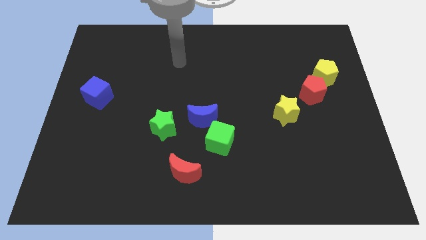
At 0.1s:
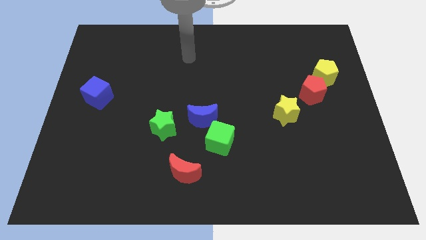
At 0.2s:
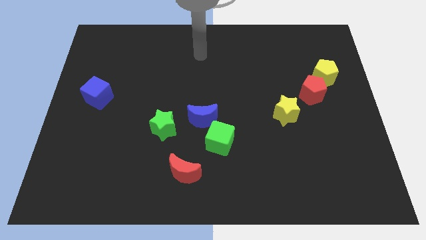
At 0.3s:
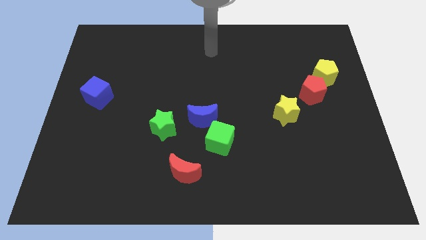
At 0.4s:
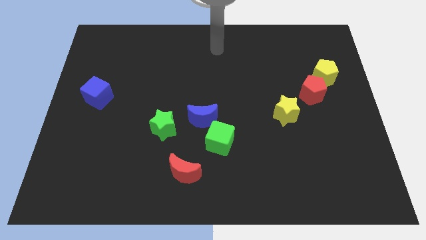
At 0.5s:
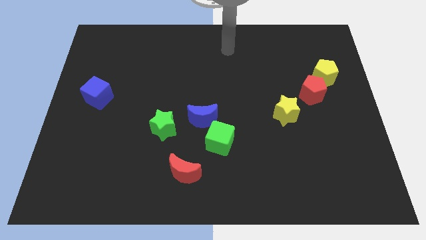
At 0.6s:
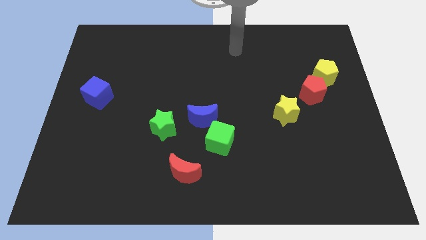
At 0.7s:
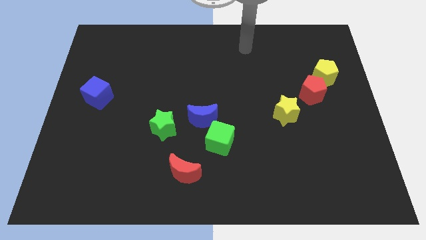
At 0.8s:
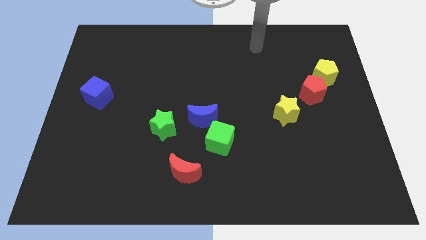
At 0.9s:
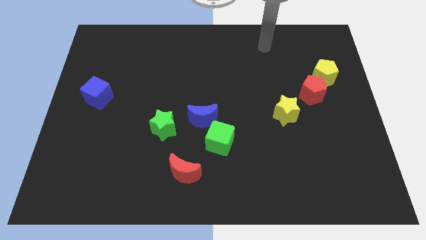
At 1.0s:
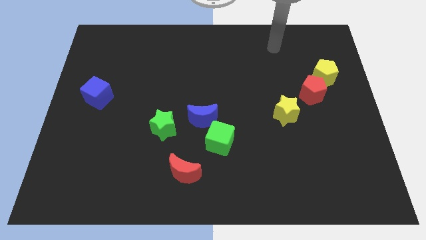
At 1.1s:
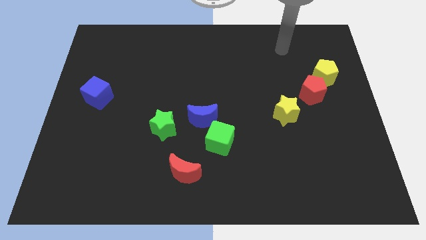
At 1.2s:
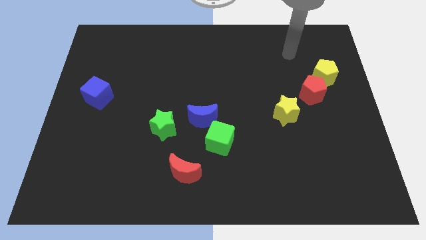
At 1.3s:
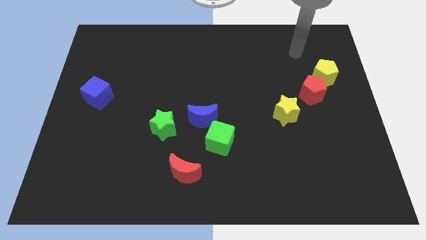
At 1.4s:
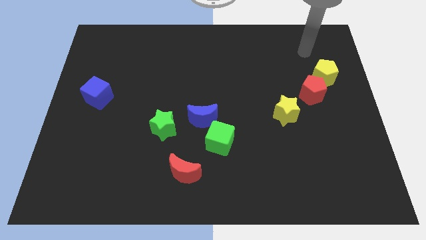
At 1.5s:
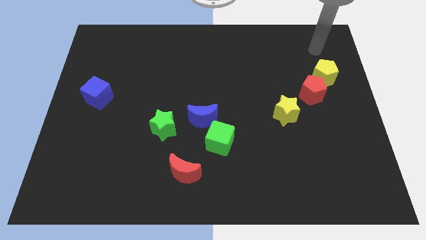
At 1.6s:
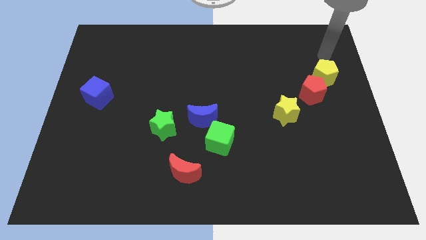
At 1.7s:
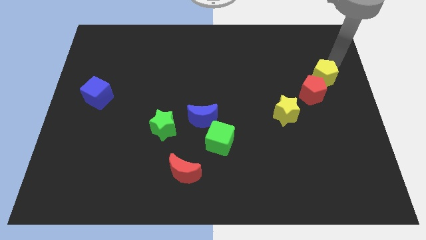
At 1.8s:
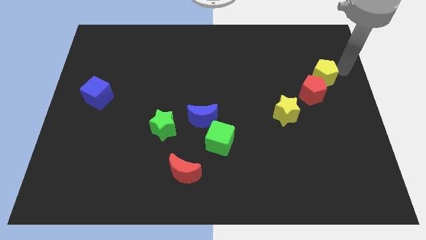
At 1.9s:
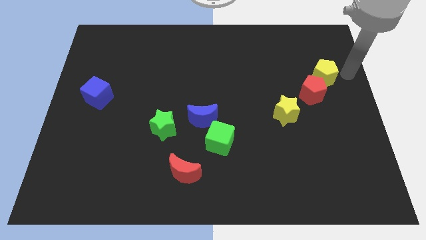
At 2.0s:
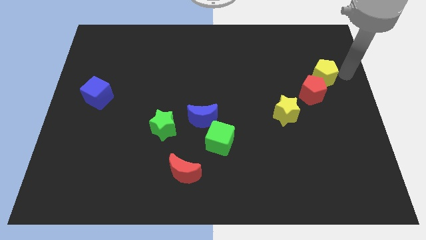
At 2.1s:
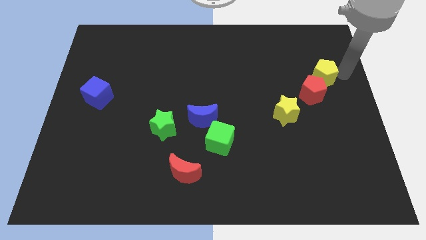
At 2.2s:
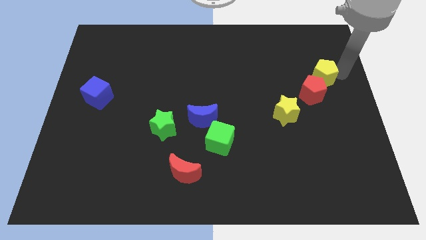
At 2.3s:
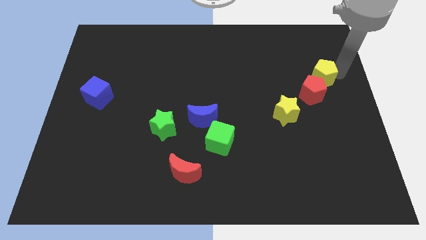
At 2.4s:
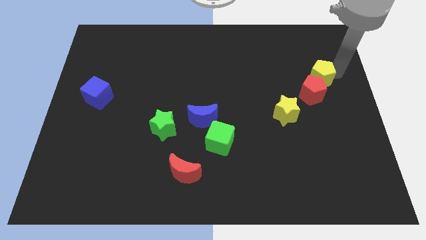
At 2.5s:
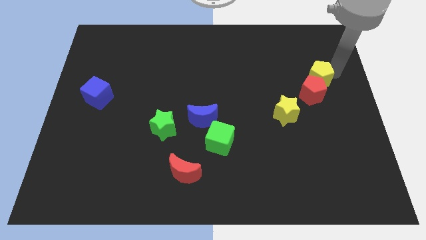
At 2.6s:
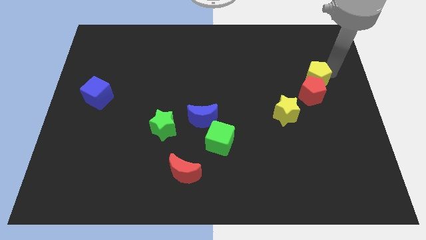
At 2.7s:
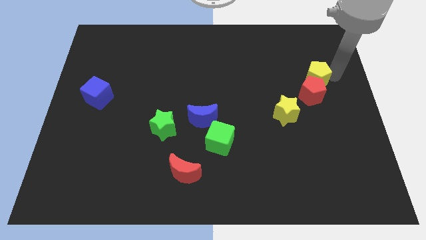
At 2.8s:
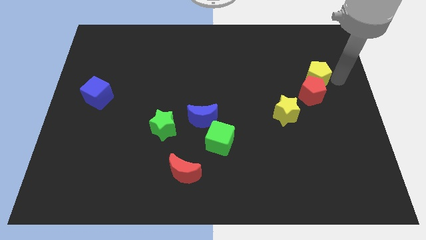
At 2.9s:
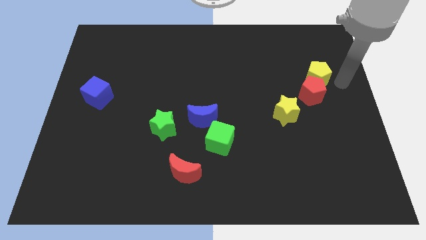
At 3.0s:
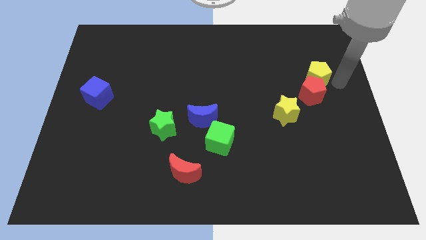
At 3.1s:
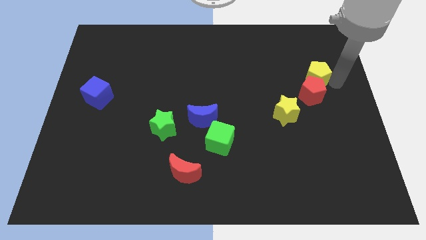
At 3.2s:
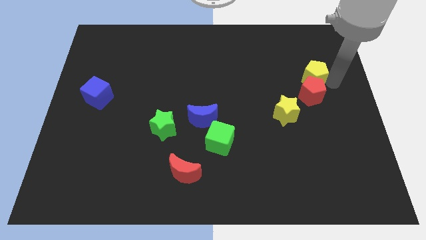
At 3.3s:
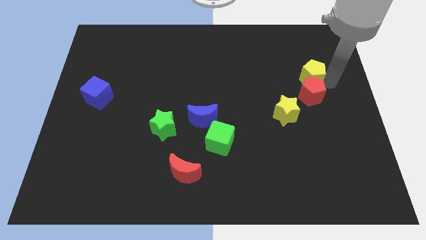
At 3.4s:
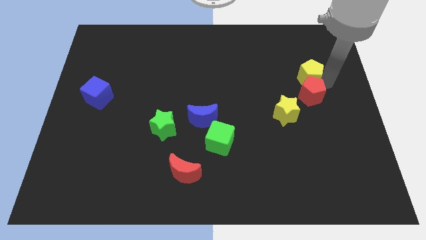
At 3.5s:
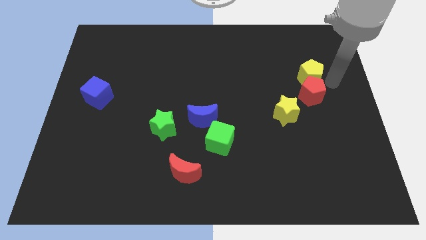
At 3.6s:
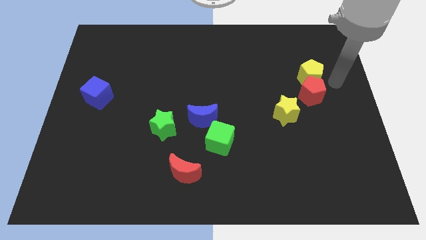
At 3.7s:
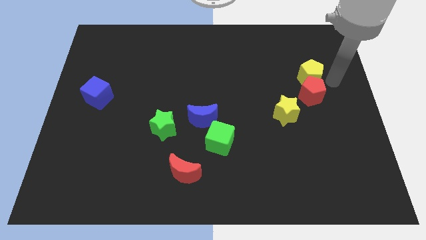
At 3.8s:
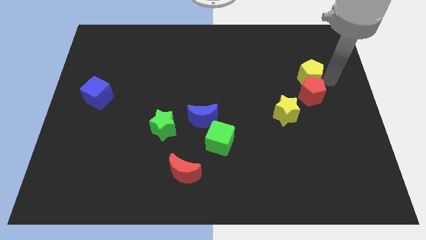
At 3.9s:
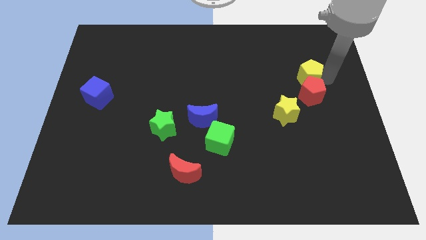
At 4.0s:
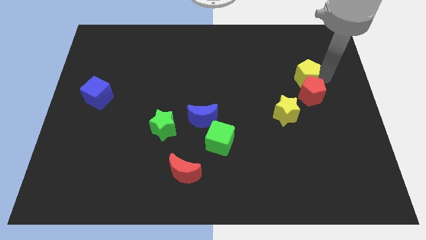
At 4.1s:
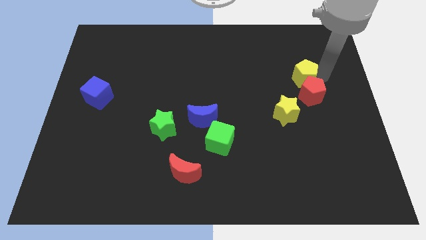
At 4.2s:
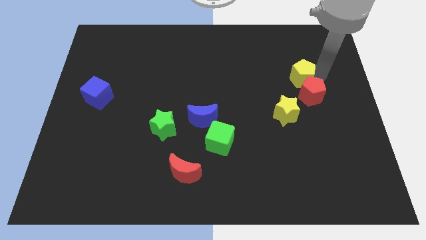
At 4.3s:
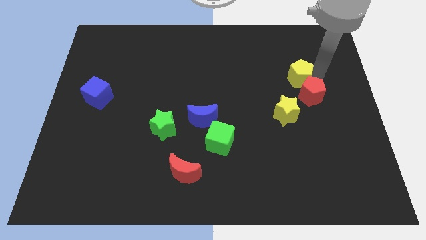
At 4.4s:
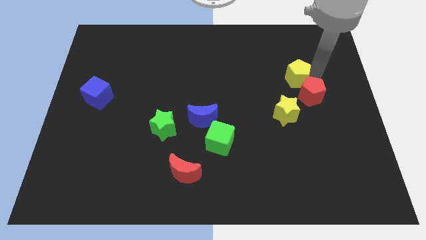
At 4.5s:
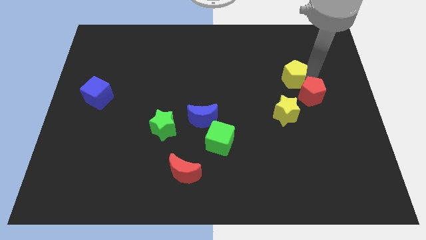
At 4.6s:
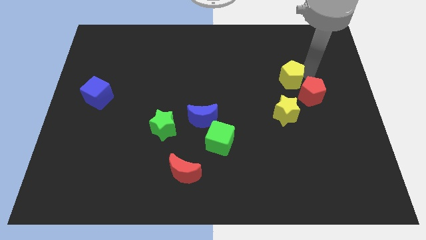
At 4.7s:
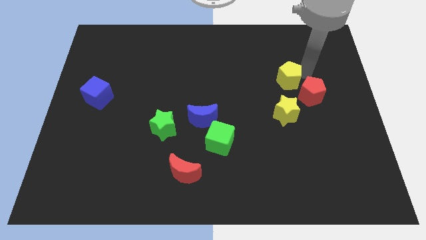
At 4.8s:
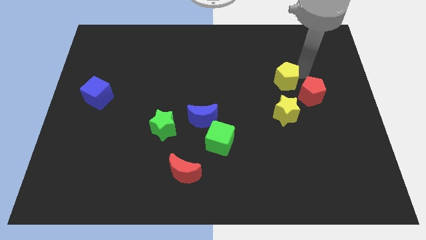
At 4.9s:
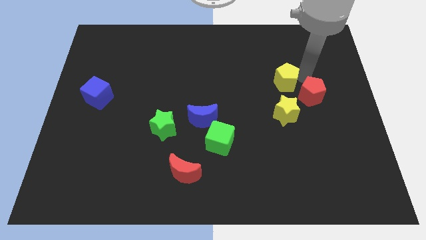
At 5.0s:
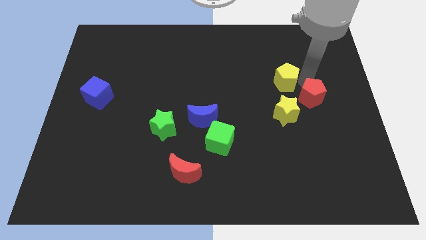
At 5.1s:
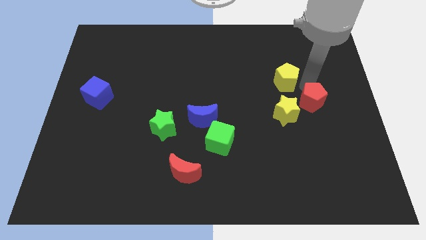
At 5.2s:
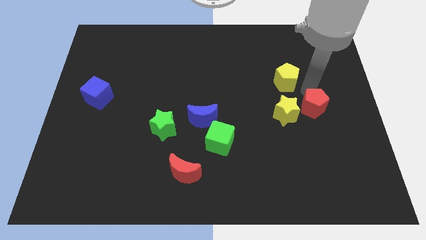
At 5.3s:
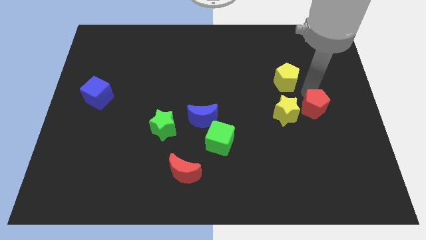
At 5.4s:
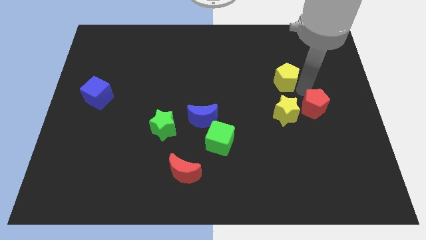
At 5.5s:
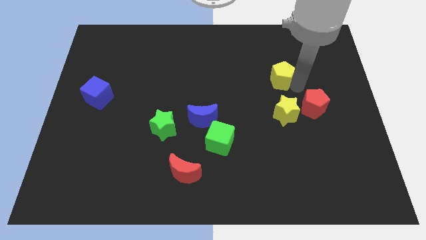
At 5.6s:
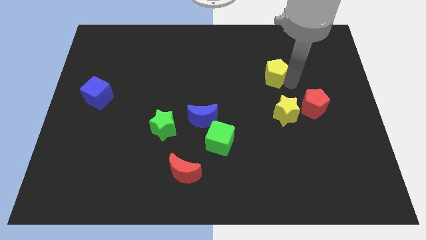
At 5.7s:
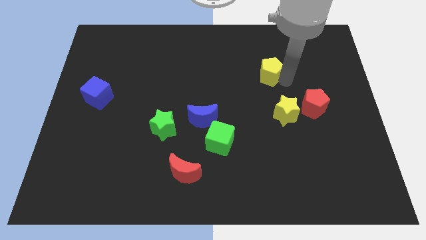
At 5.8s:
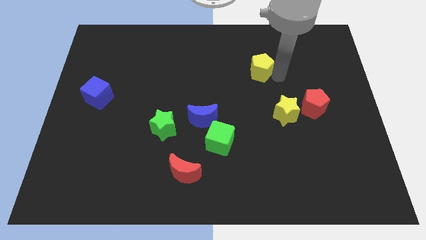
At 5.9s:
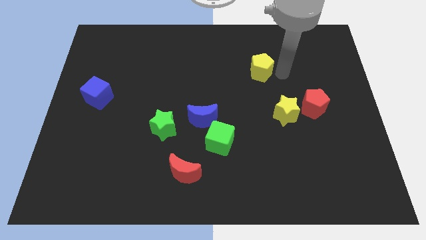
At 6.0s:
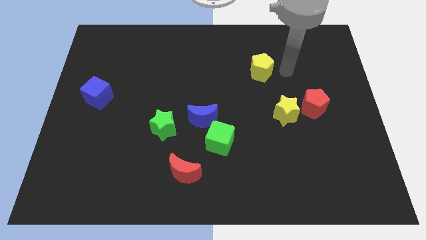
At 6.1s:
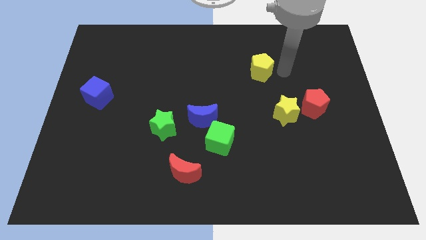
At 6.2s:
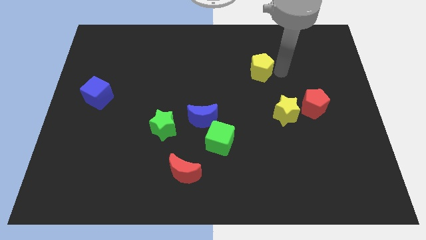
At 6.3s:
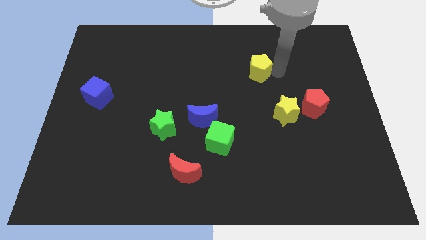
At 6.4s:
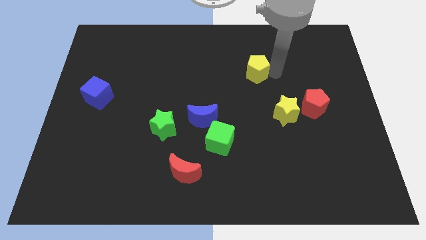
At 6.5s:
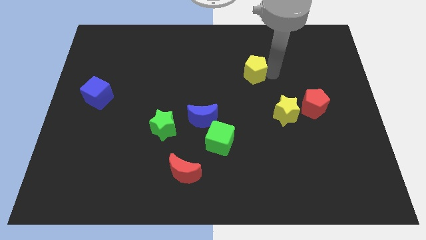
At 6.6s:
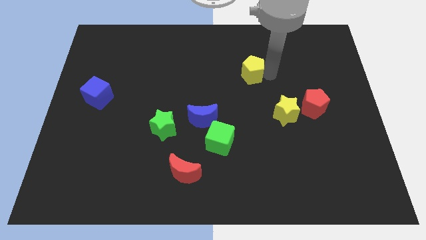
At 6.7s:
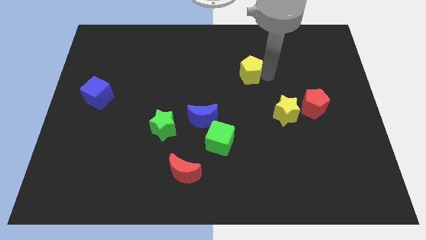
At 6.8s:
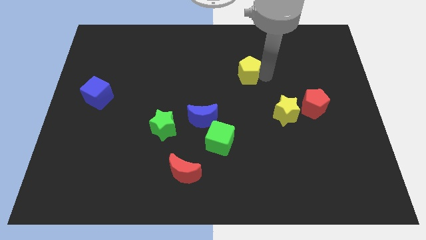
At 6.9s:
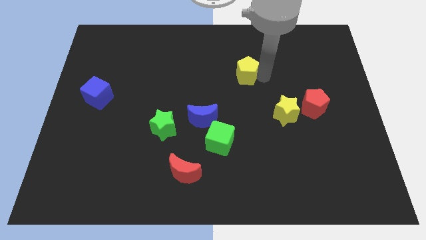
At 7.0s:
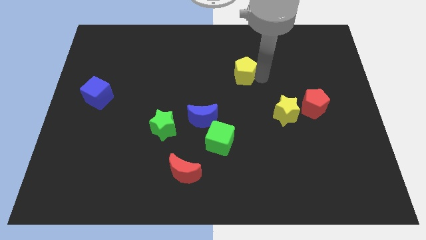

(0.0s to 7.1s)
slide the yellow pentagon to the left

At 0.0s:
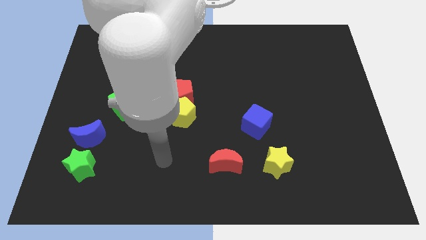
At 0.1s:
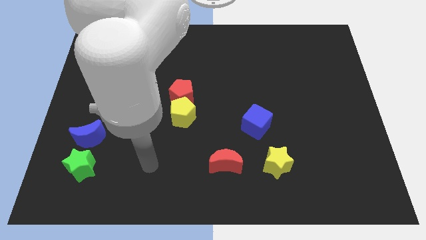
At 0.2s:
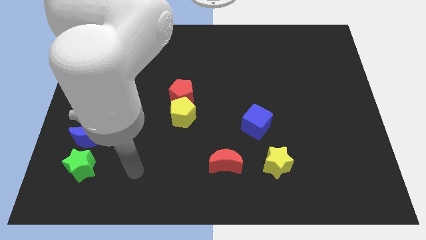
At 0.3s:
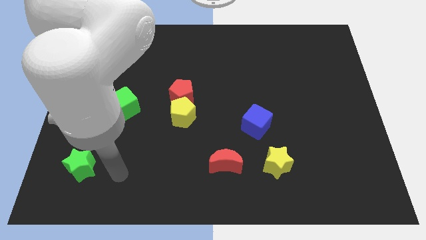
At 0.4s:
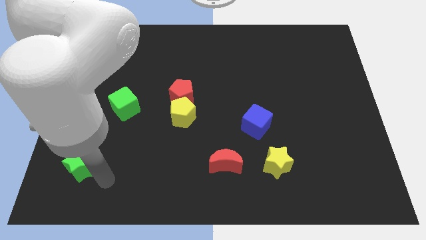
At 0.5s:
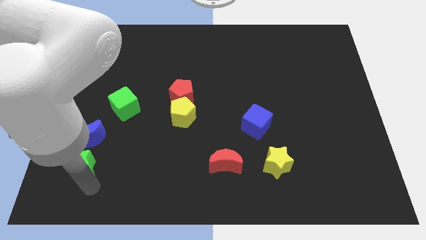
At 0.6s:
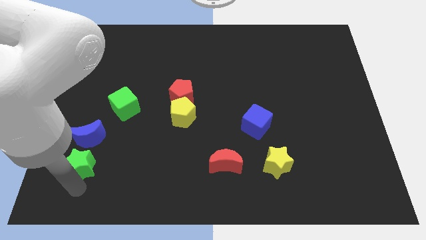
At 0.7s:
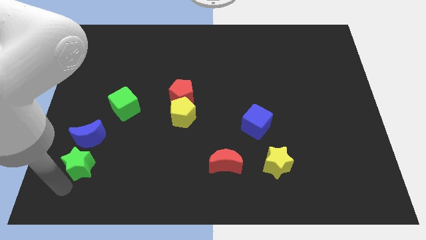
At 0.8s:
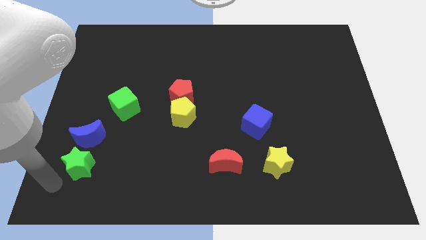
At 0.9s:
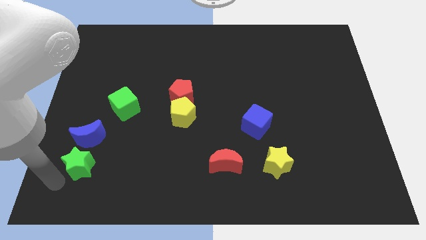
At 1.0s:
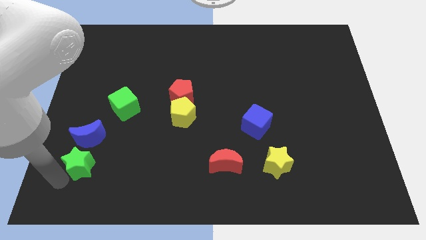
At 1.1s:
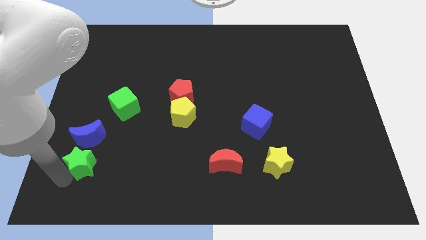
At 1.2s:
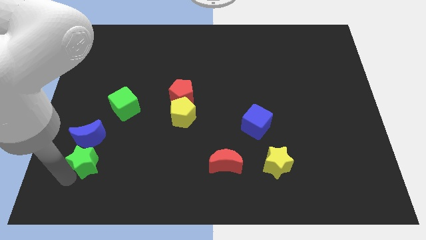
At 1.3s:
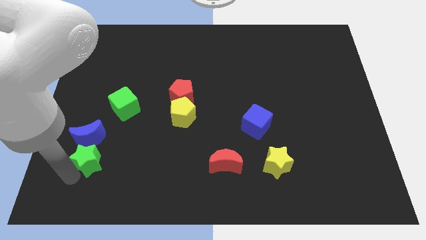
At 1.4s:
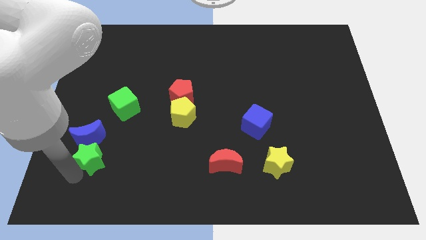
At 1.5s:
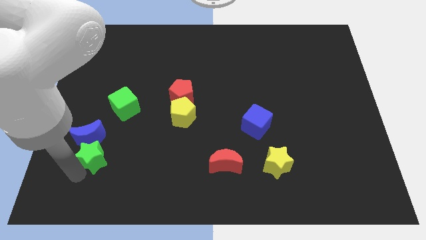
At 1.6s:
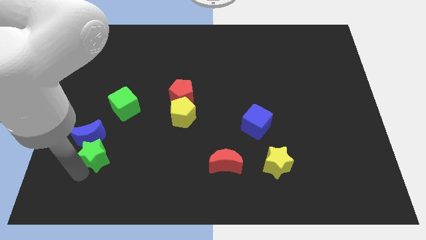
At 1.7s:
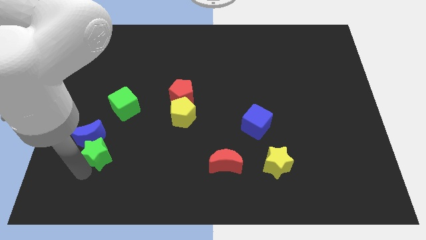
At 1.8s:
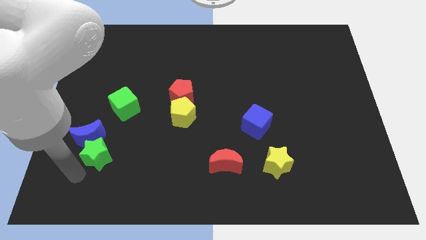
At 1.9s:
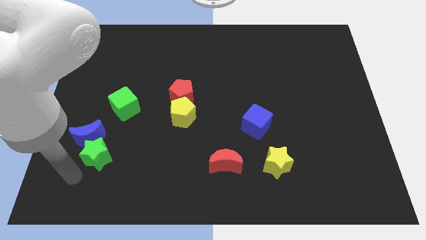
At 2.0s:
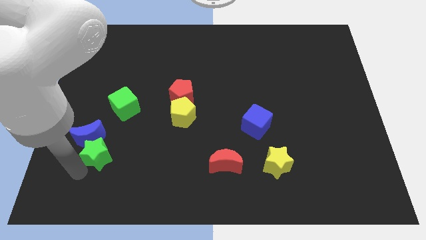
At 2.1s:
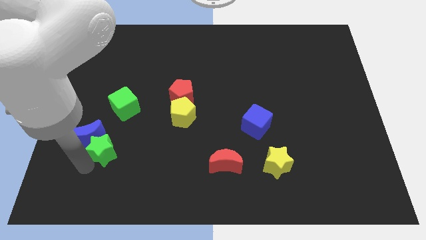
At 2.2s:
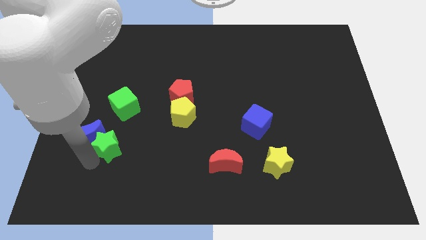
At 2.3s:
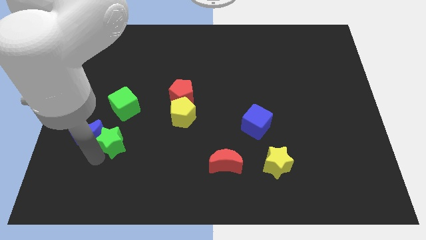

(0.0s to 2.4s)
move the green star slightly up and right diagonally
